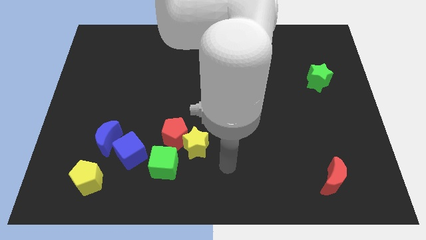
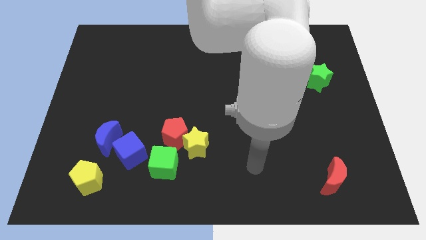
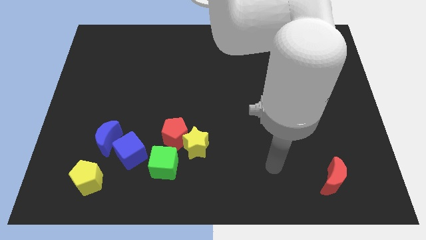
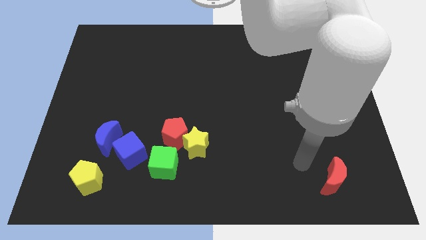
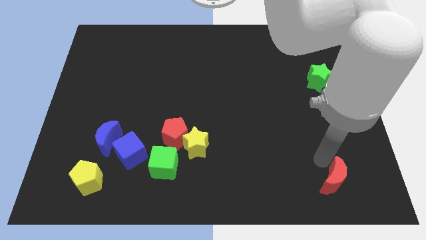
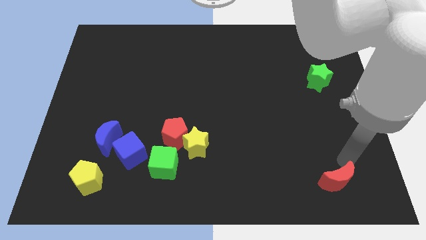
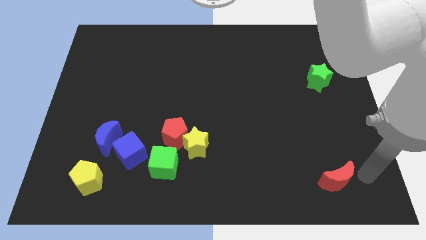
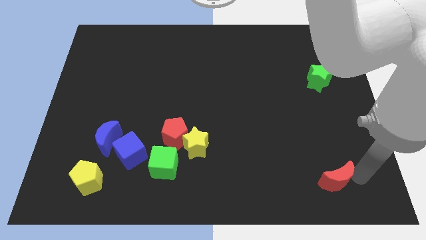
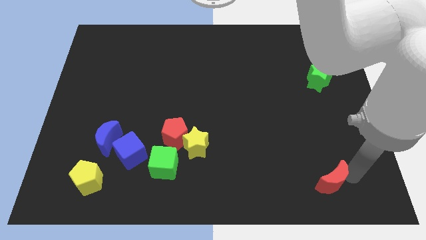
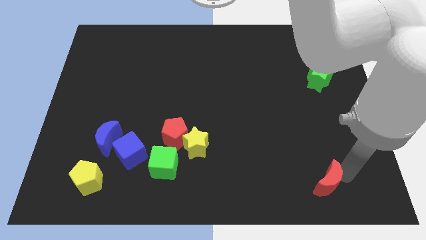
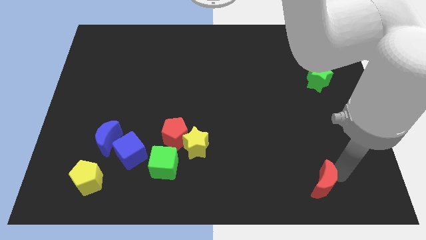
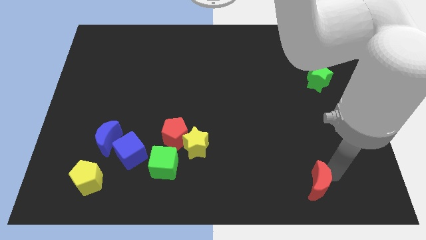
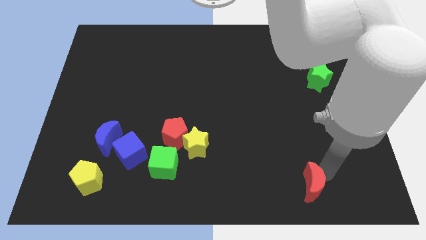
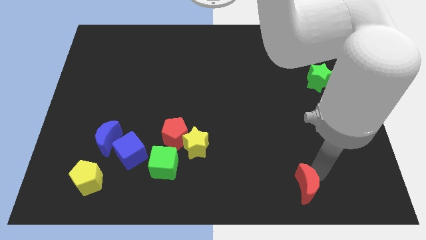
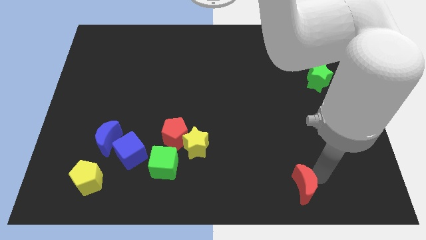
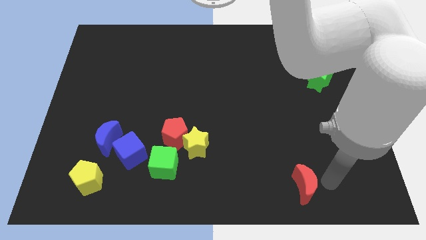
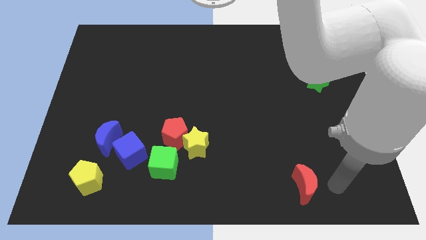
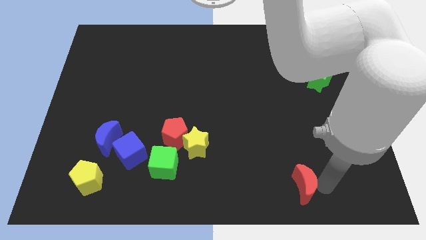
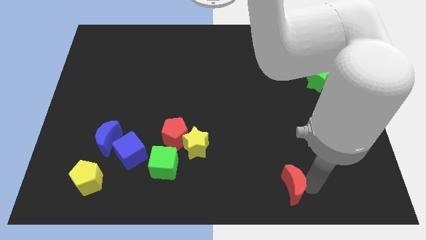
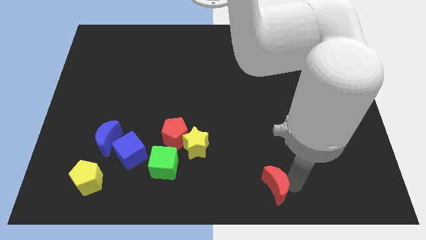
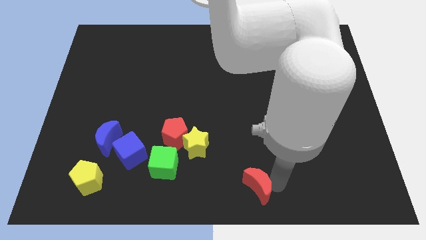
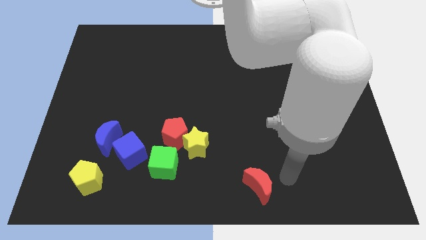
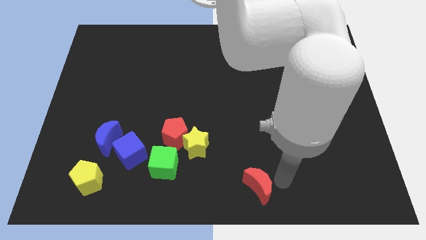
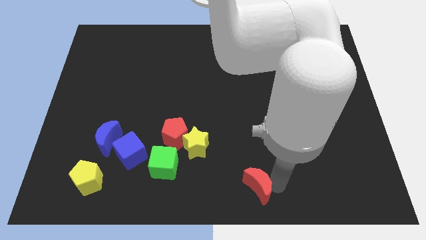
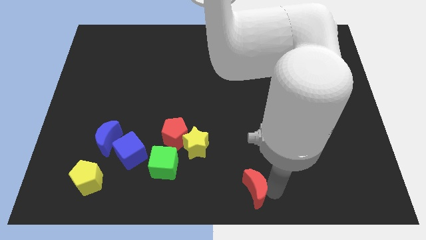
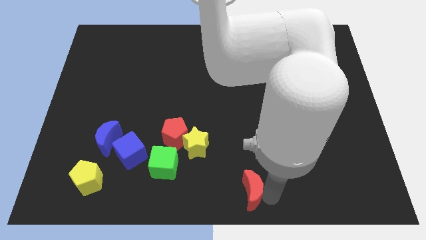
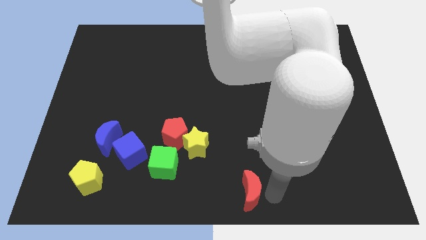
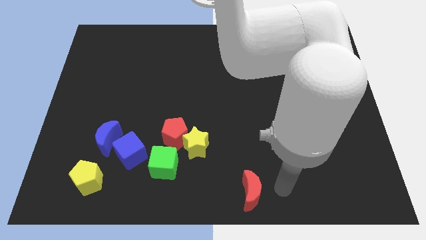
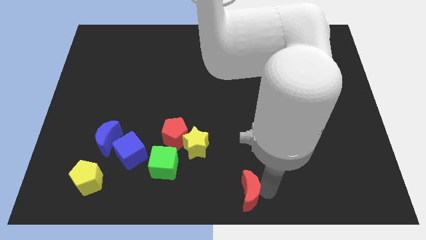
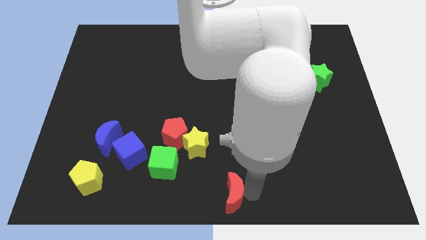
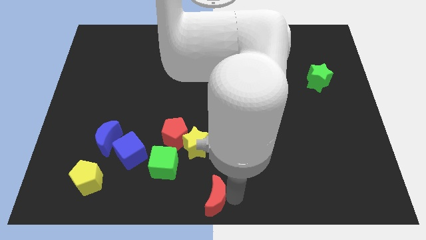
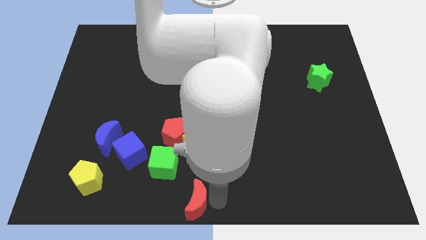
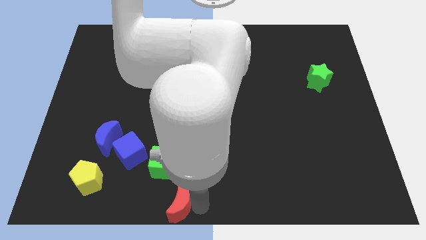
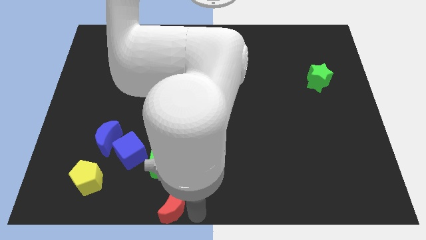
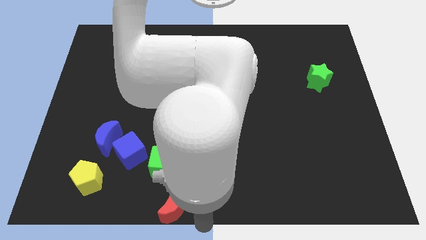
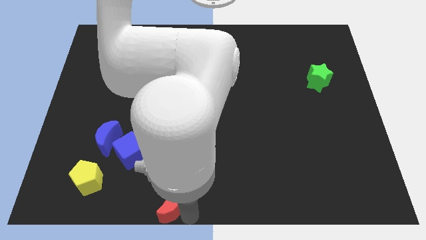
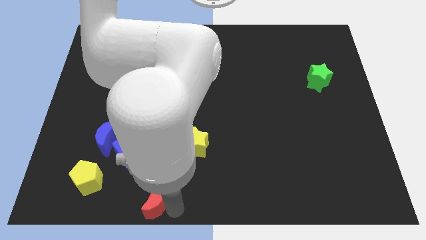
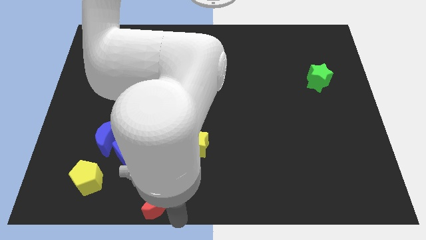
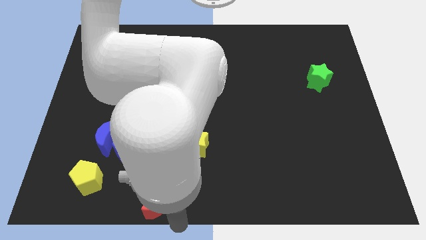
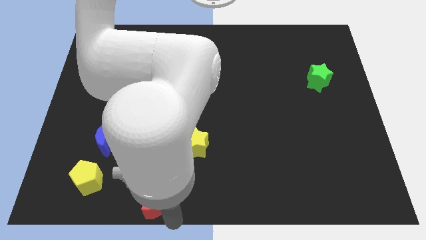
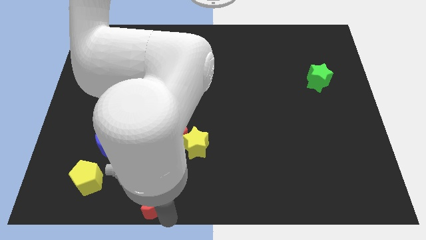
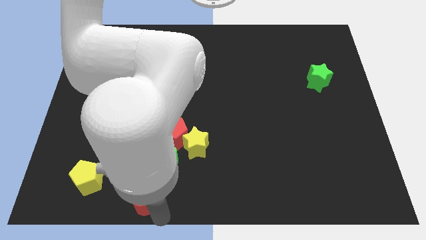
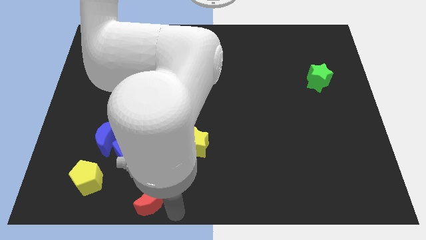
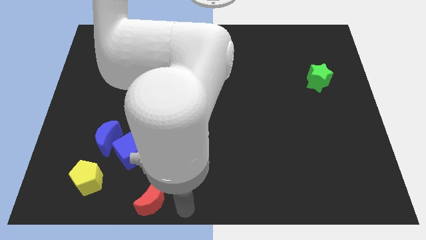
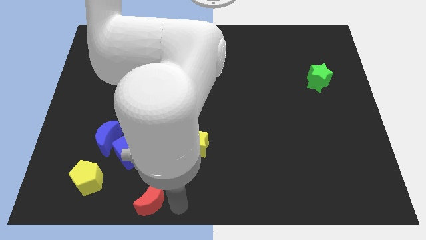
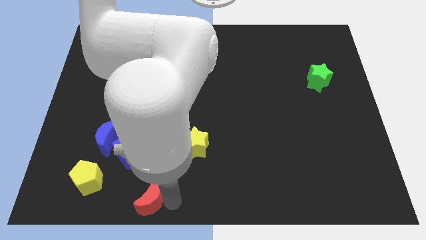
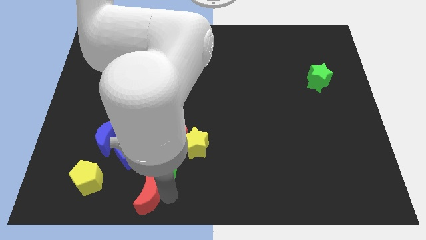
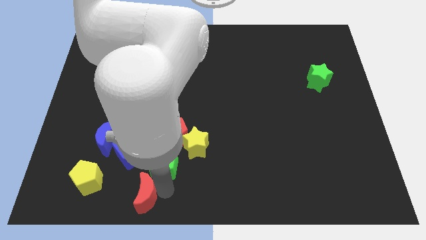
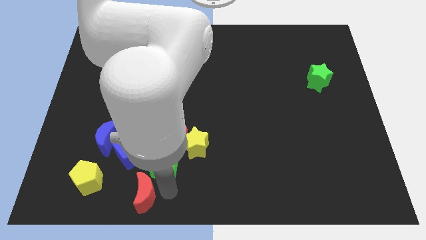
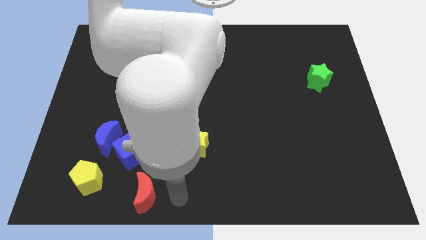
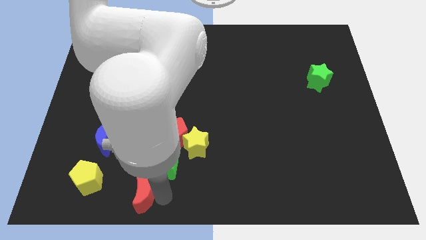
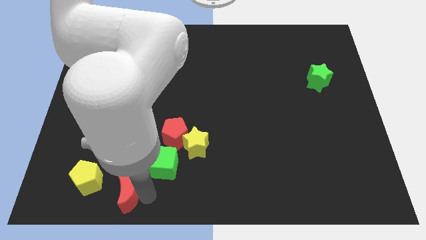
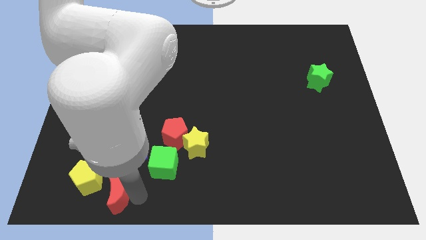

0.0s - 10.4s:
slide the red moon to the bottom side of the blue moon

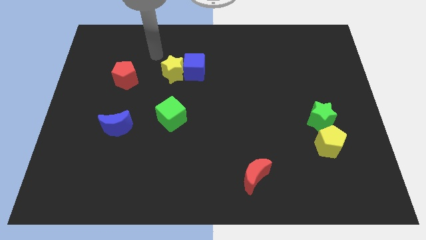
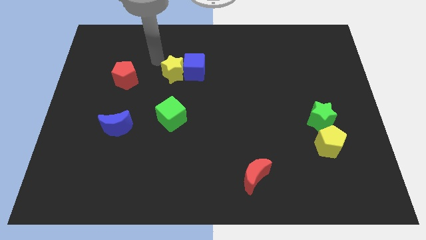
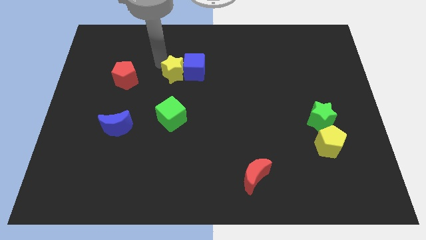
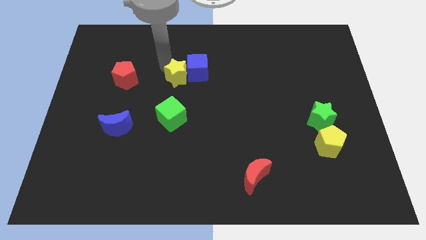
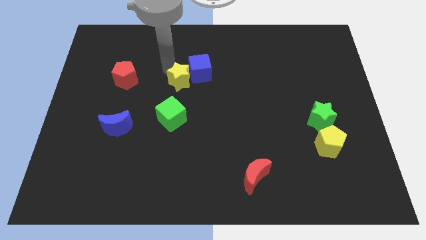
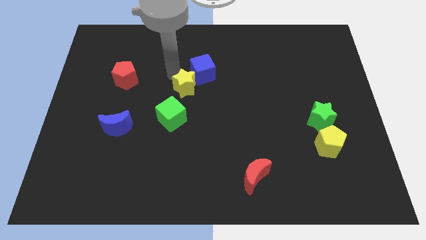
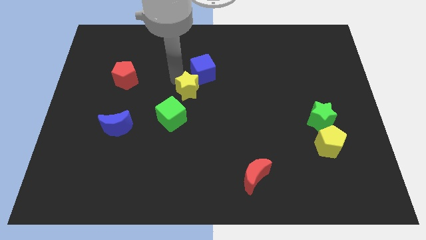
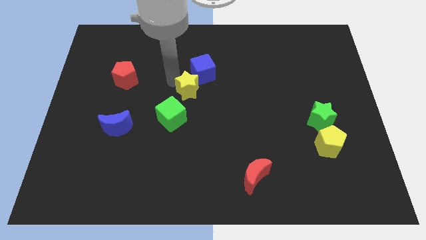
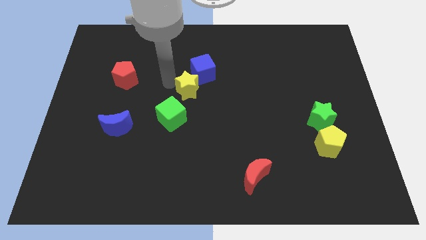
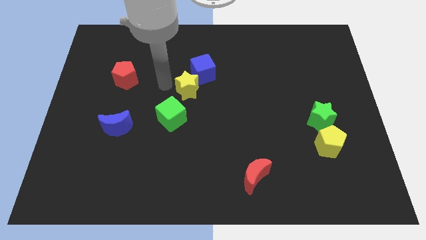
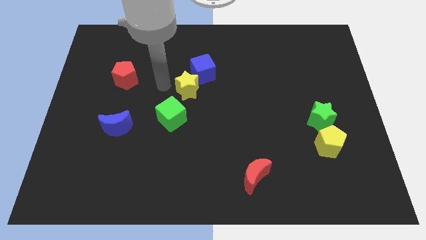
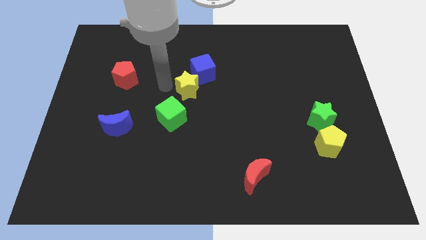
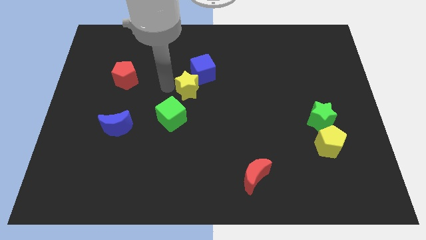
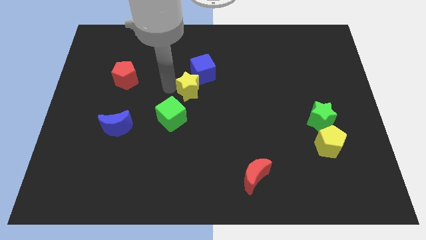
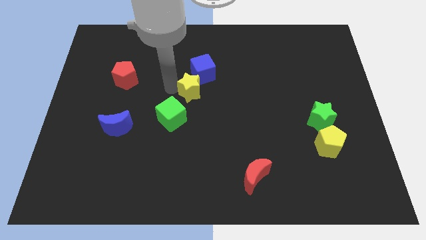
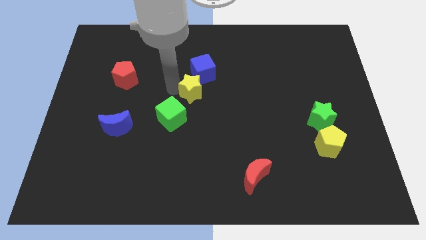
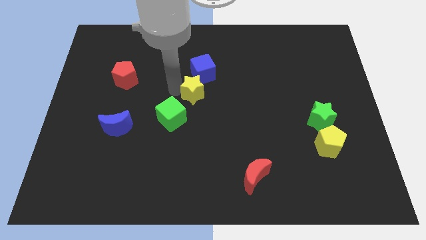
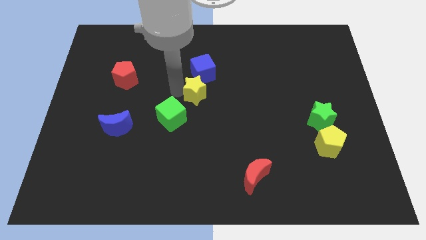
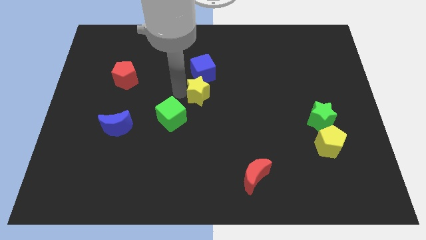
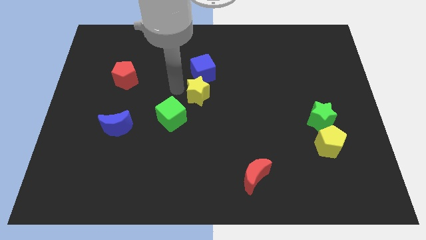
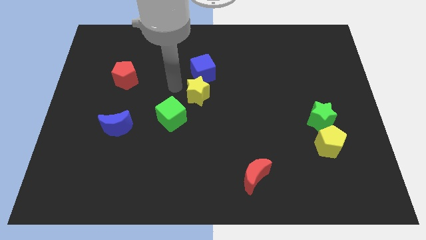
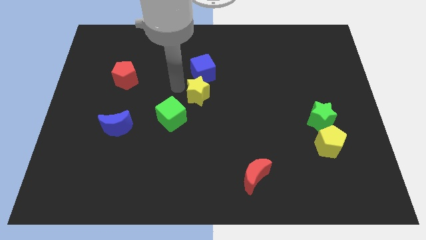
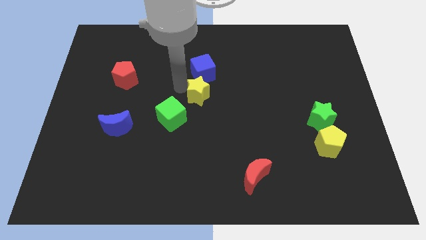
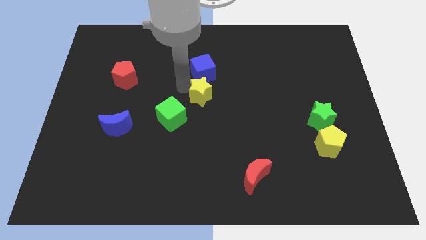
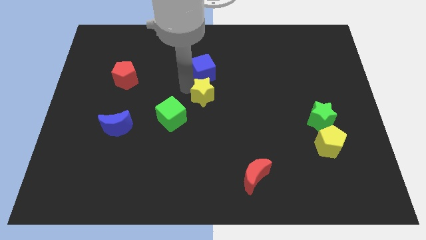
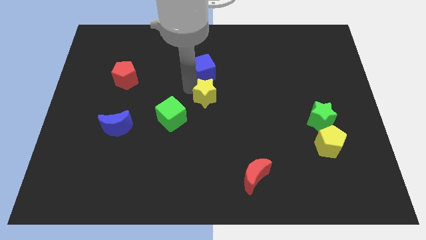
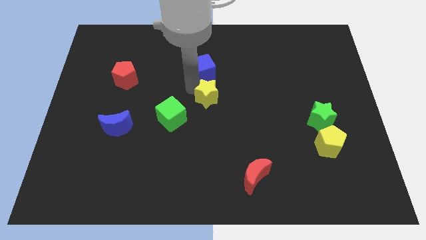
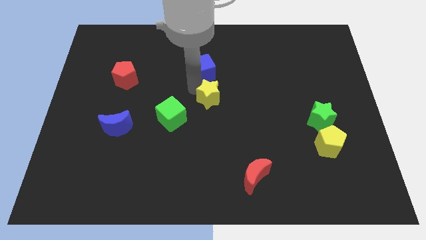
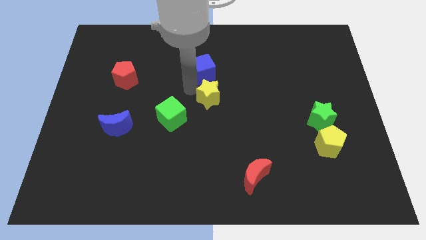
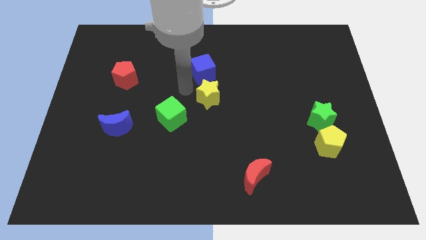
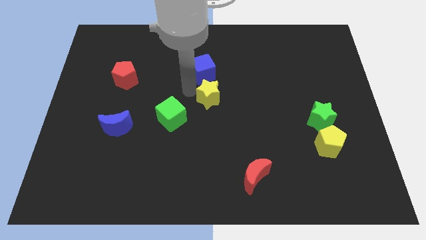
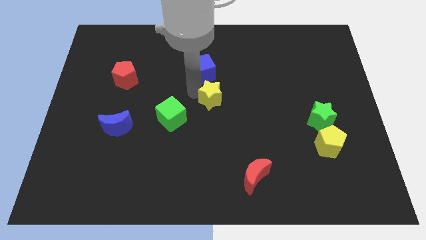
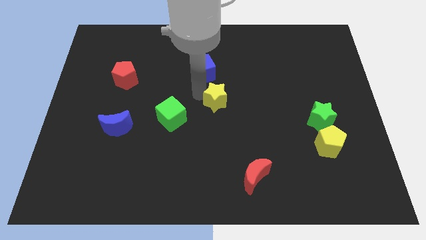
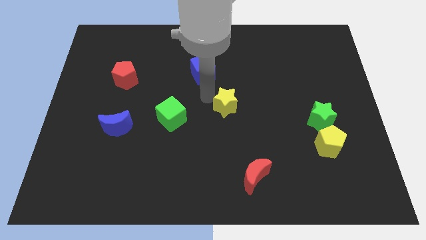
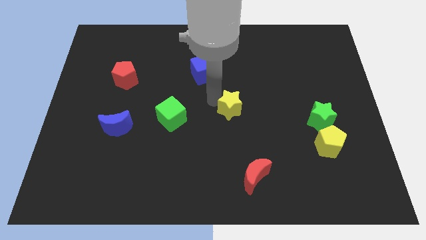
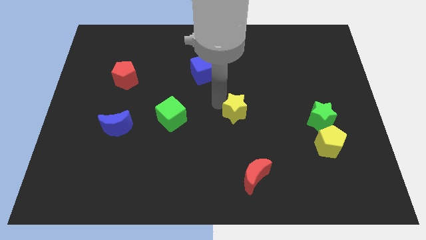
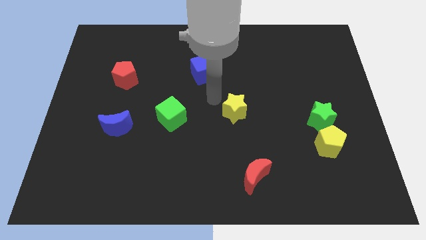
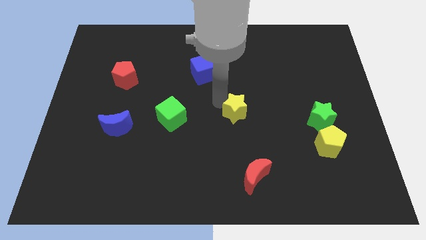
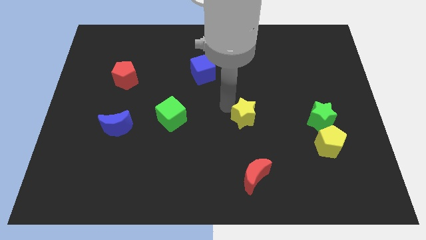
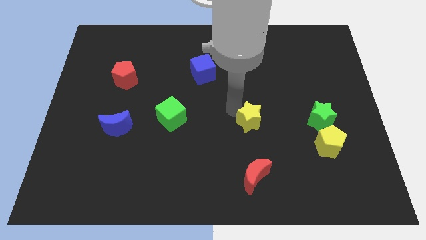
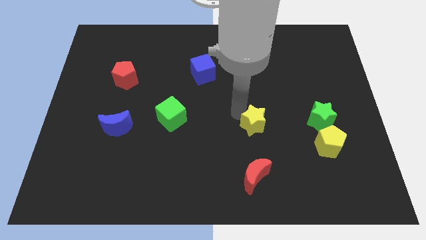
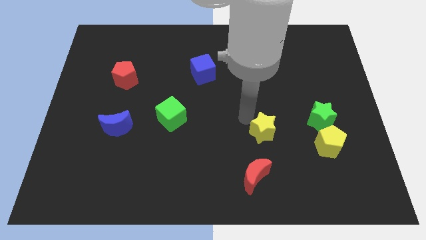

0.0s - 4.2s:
push the yellow star just left of the yellow pentagon
